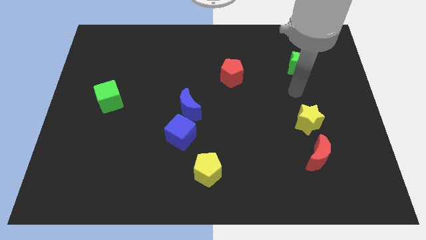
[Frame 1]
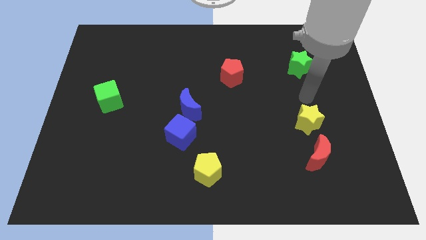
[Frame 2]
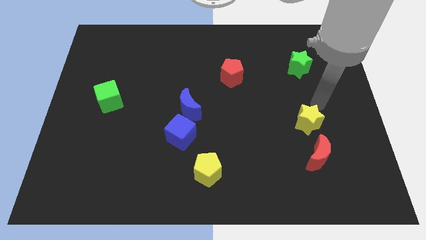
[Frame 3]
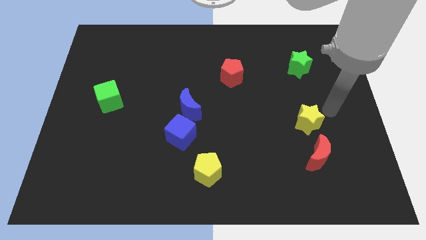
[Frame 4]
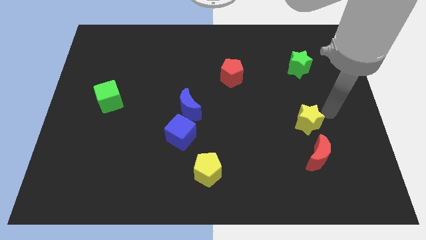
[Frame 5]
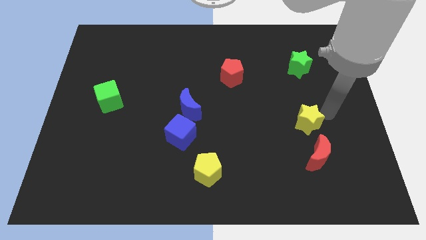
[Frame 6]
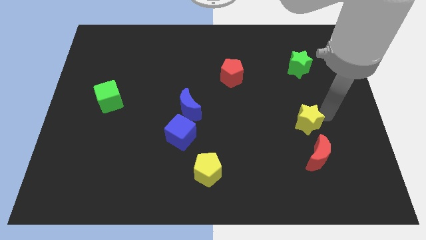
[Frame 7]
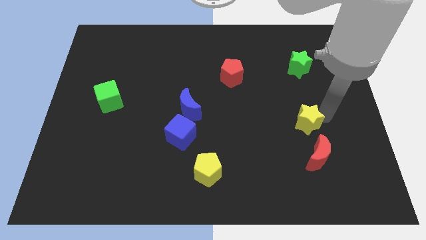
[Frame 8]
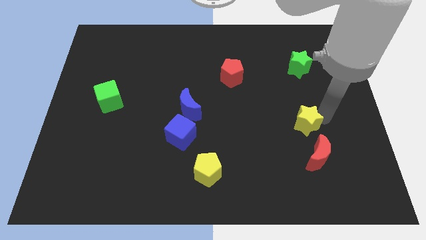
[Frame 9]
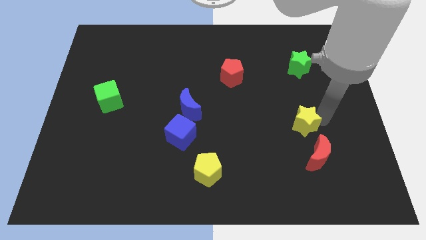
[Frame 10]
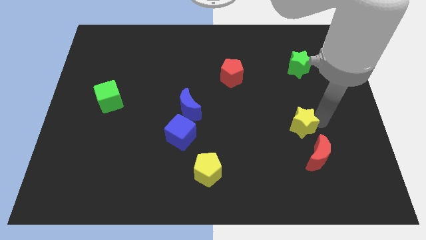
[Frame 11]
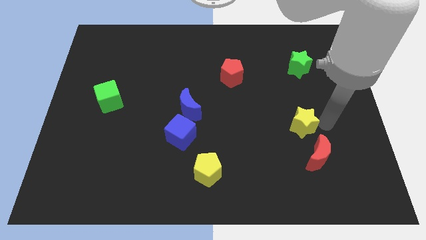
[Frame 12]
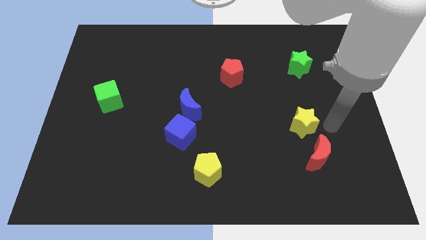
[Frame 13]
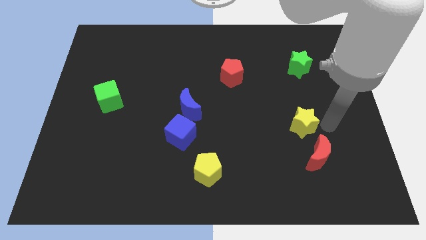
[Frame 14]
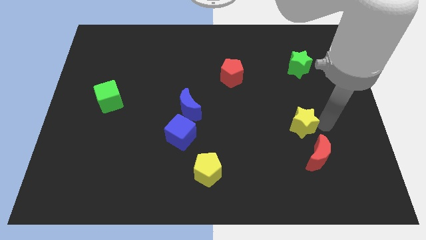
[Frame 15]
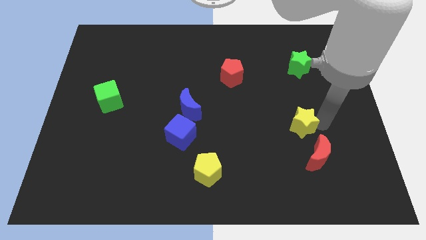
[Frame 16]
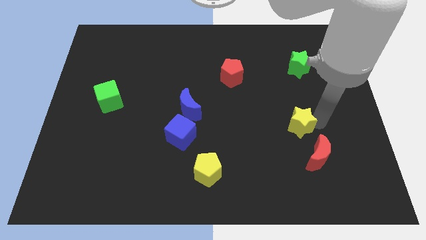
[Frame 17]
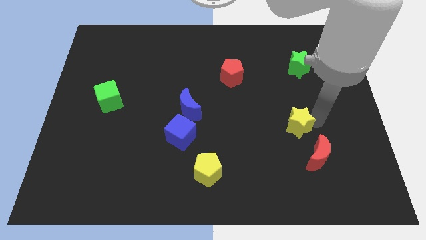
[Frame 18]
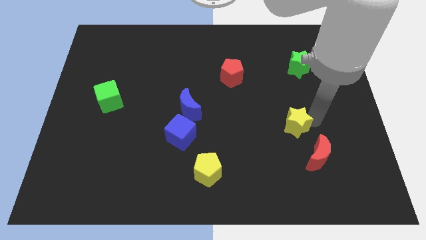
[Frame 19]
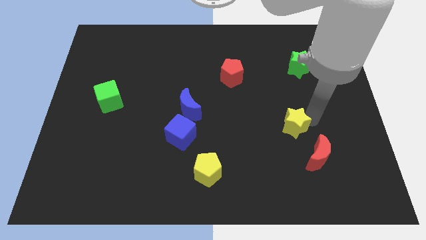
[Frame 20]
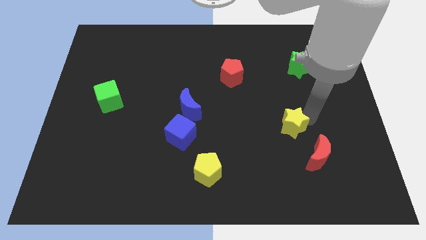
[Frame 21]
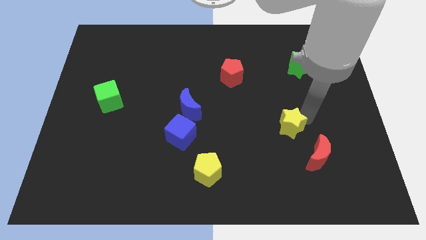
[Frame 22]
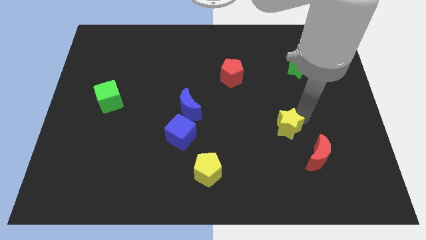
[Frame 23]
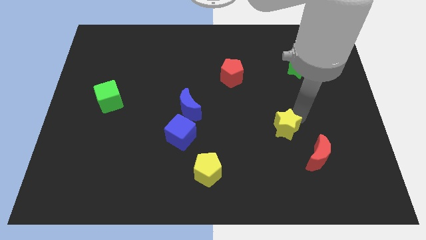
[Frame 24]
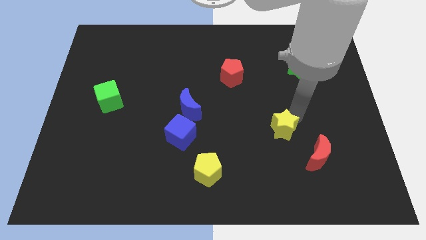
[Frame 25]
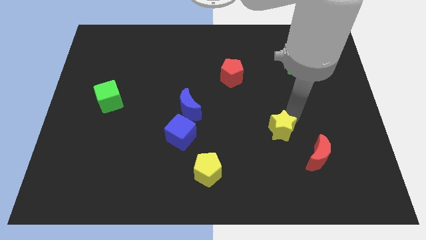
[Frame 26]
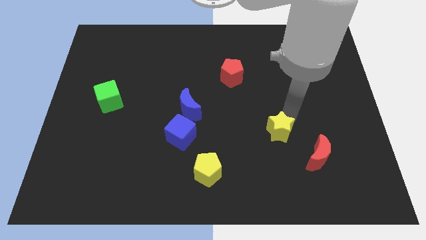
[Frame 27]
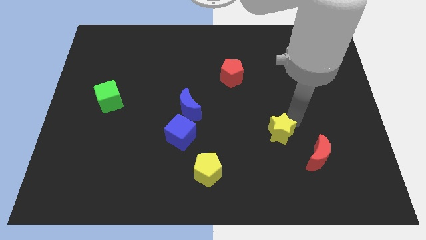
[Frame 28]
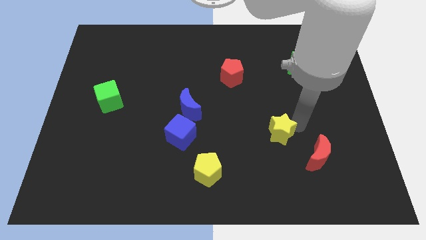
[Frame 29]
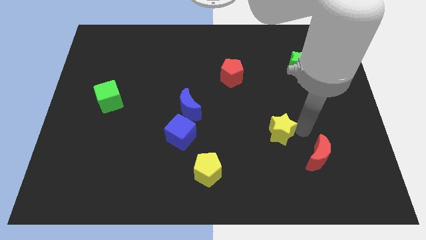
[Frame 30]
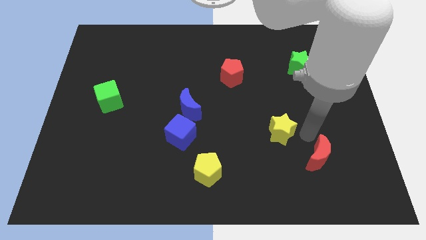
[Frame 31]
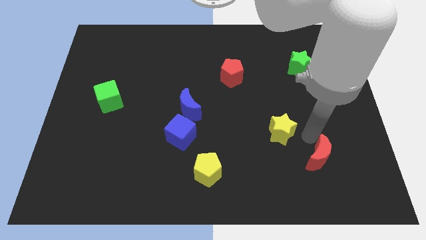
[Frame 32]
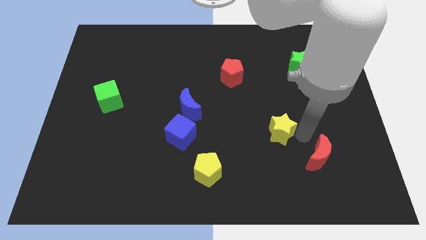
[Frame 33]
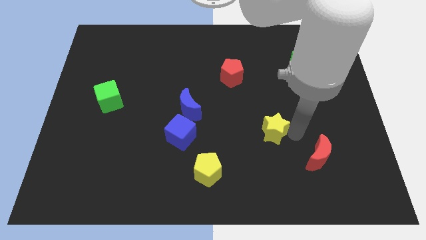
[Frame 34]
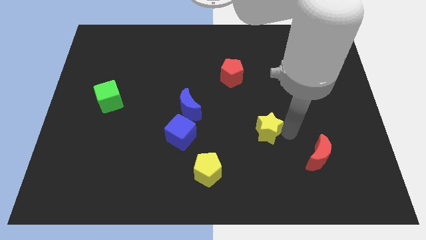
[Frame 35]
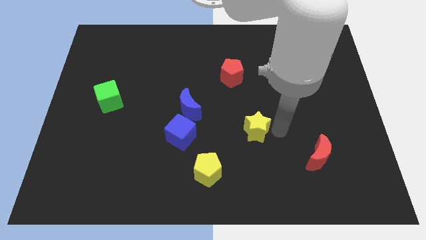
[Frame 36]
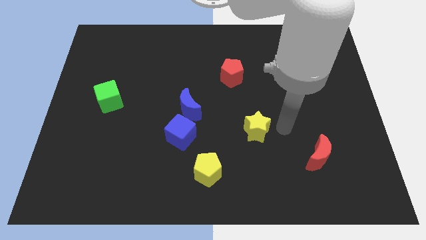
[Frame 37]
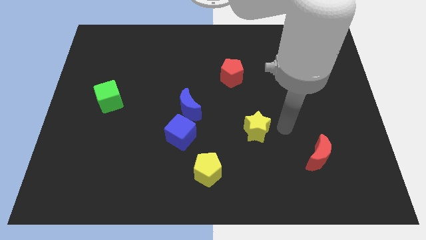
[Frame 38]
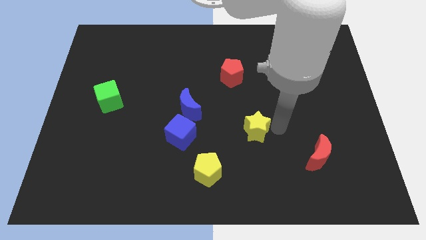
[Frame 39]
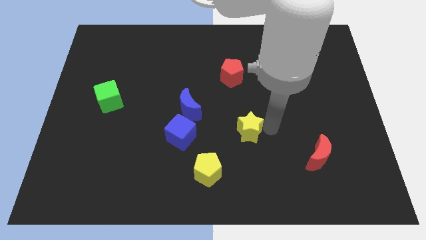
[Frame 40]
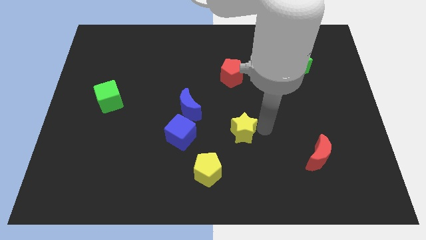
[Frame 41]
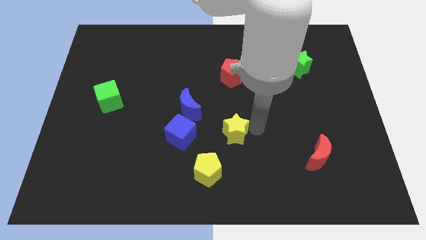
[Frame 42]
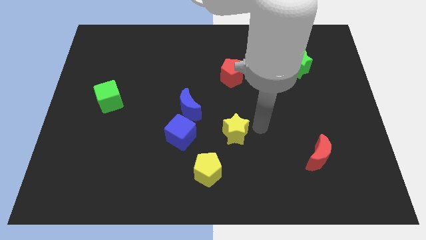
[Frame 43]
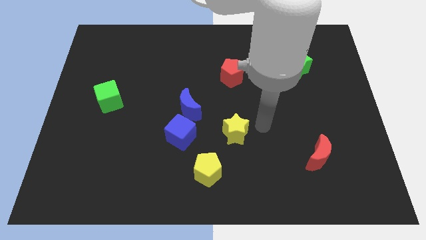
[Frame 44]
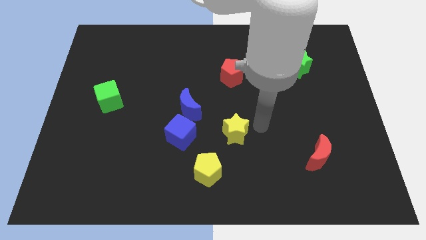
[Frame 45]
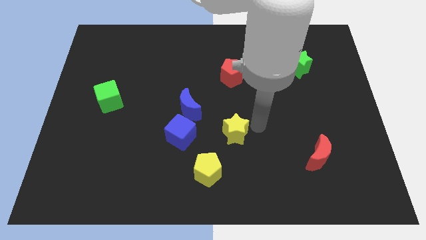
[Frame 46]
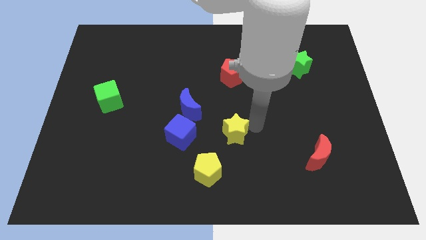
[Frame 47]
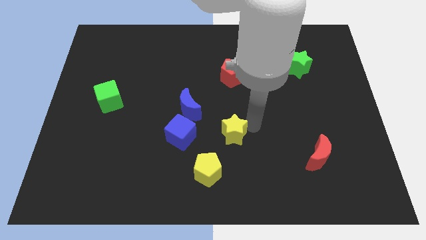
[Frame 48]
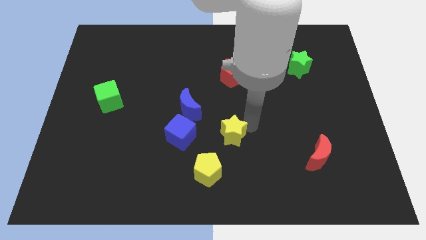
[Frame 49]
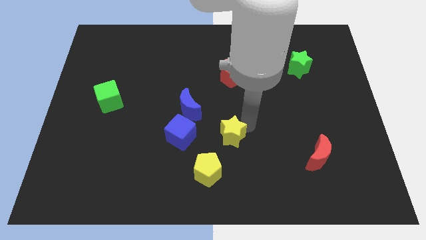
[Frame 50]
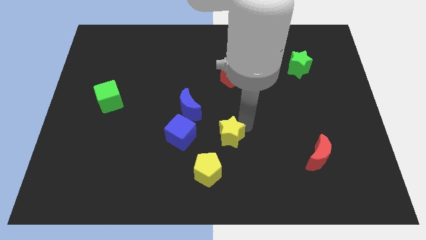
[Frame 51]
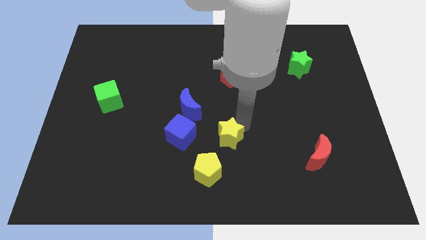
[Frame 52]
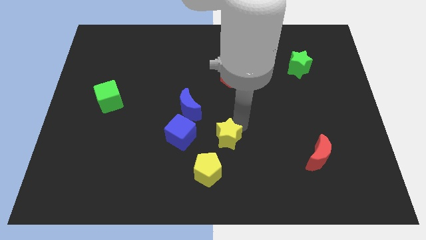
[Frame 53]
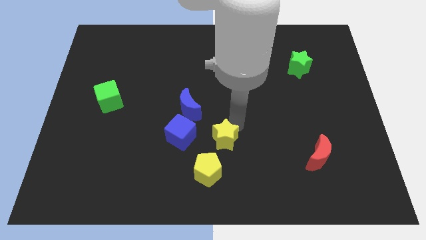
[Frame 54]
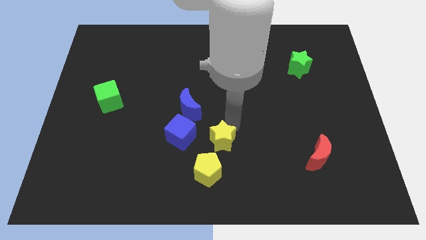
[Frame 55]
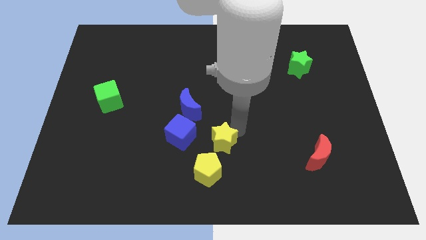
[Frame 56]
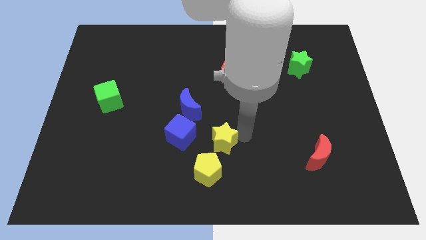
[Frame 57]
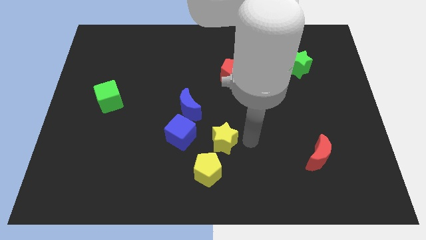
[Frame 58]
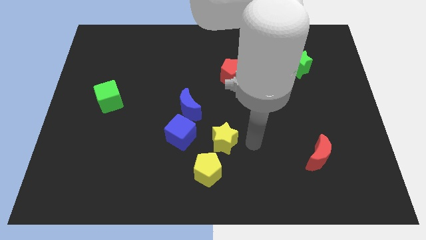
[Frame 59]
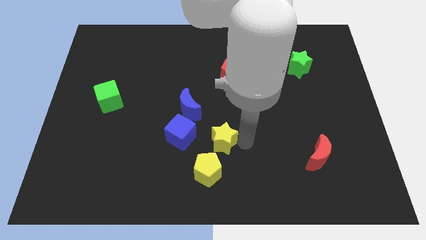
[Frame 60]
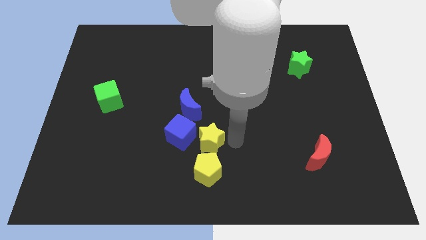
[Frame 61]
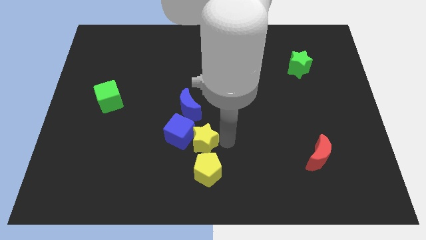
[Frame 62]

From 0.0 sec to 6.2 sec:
move the yellow star next to the blue cube

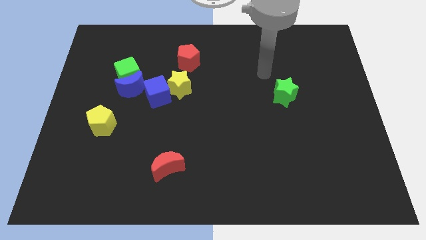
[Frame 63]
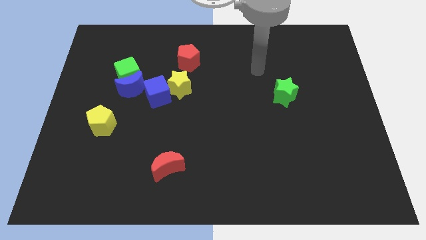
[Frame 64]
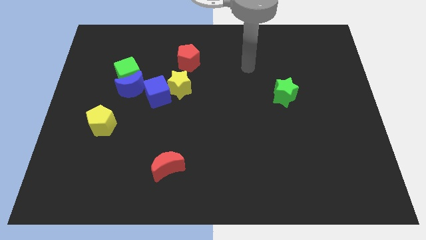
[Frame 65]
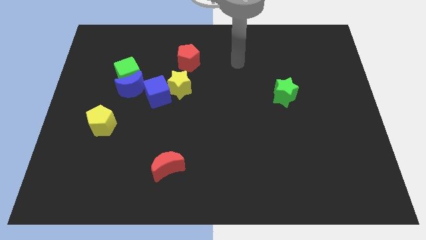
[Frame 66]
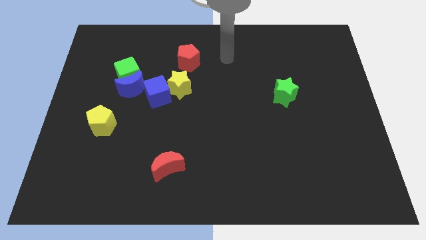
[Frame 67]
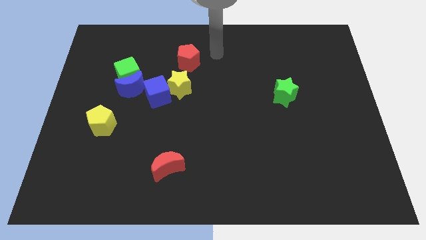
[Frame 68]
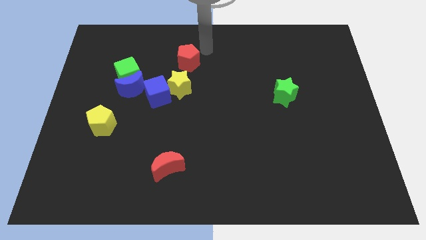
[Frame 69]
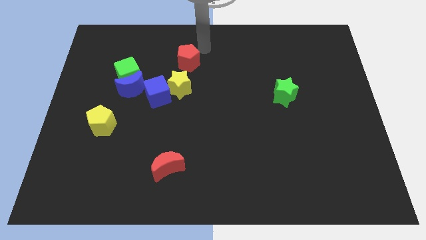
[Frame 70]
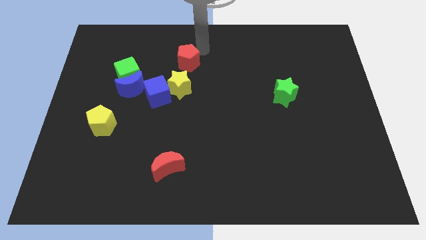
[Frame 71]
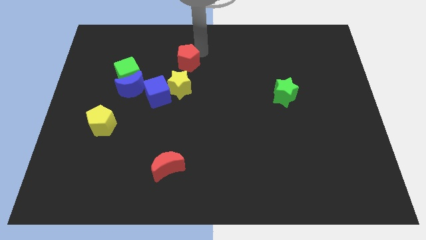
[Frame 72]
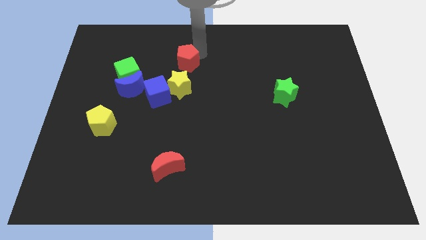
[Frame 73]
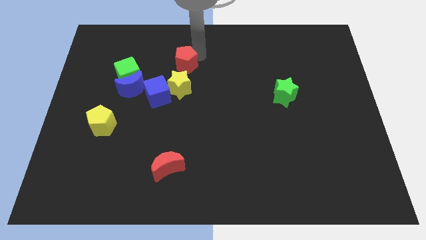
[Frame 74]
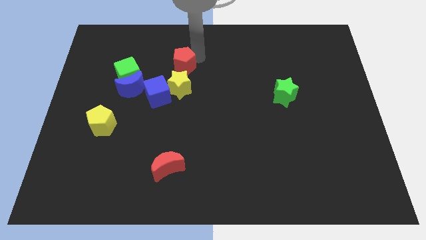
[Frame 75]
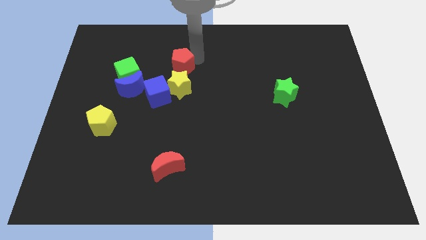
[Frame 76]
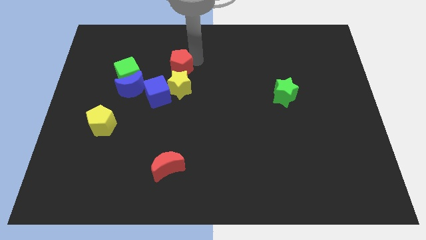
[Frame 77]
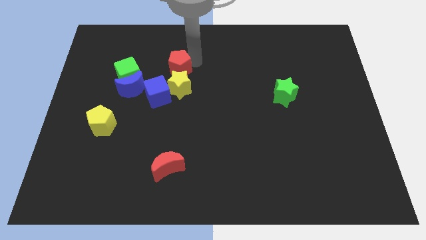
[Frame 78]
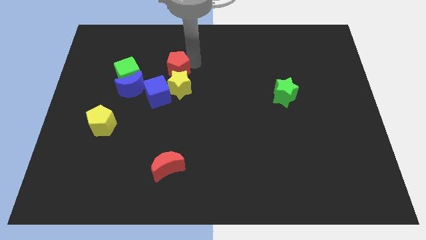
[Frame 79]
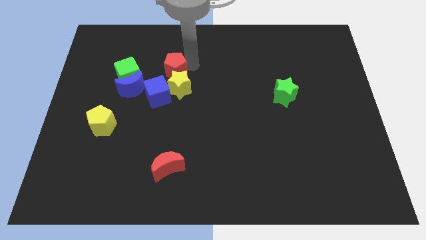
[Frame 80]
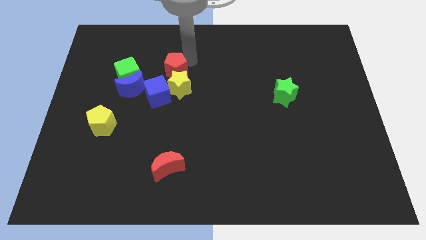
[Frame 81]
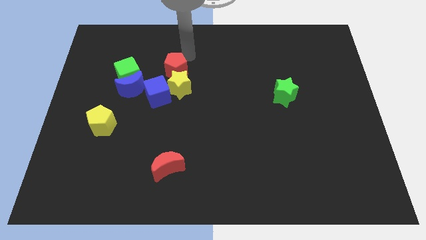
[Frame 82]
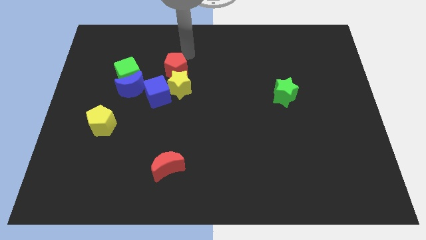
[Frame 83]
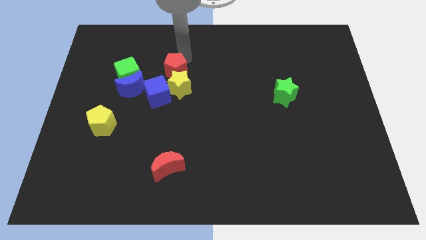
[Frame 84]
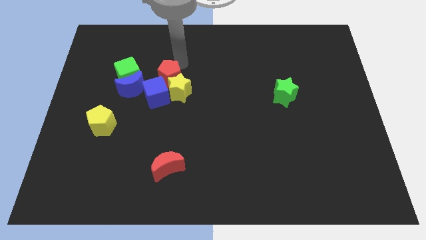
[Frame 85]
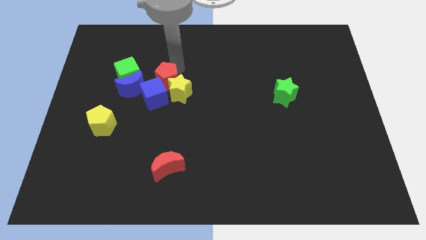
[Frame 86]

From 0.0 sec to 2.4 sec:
put the red pentagon next to the blue cube
